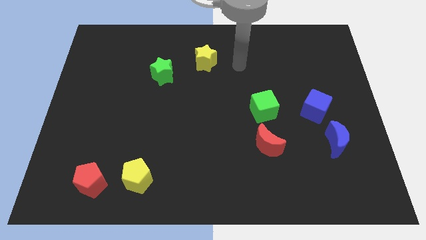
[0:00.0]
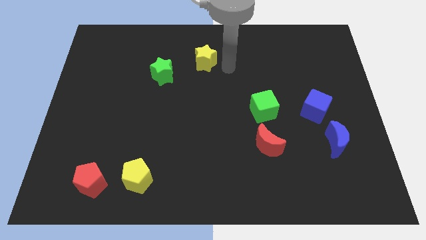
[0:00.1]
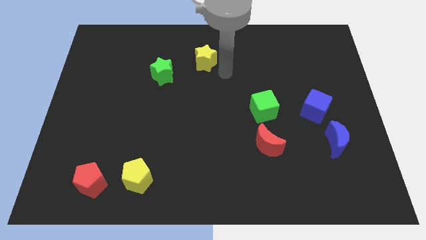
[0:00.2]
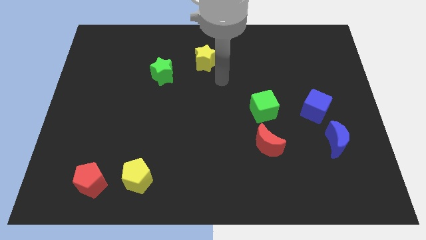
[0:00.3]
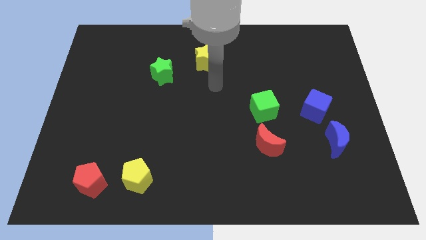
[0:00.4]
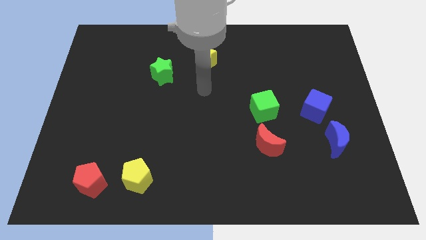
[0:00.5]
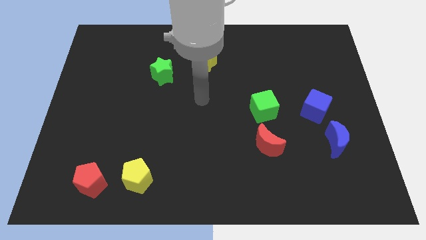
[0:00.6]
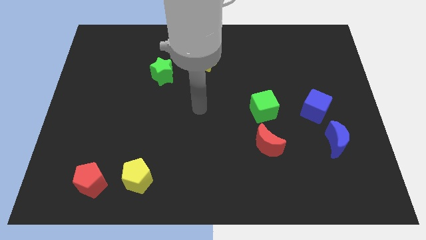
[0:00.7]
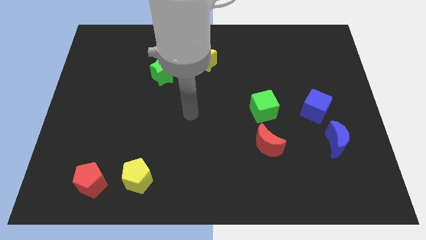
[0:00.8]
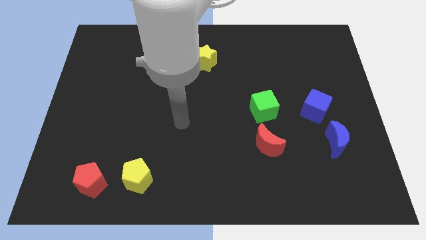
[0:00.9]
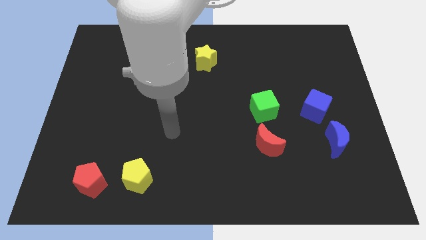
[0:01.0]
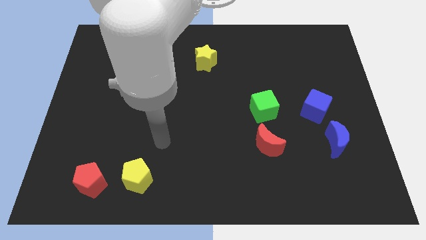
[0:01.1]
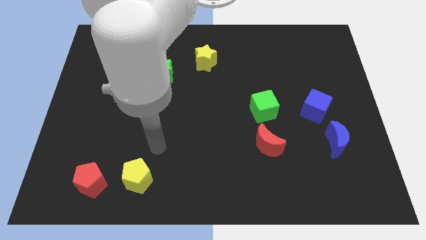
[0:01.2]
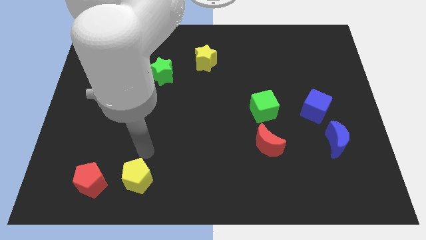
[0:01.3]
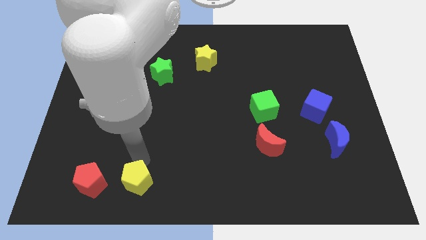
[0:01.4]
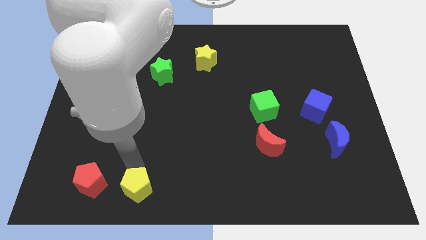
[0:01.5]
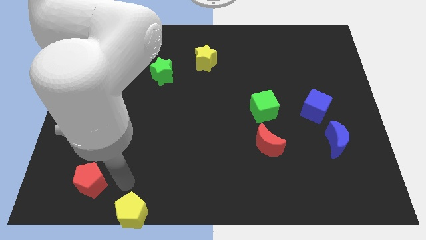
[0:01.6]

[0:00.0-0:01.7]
move the red pentagon away from the yellow pentagon

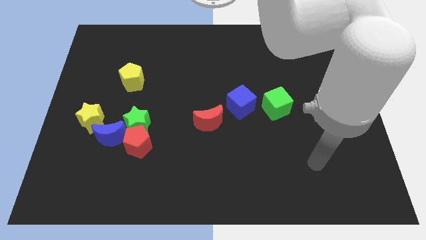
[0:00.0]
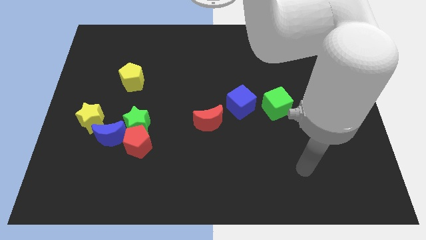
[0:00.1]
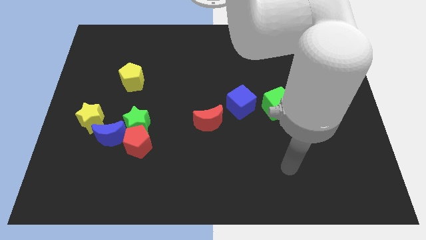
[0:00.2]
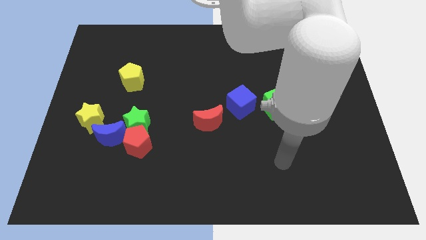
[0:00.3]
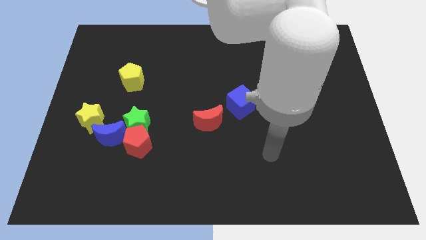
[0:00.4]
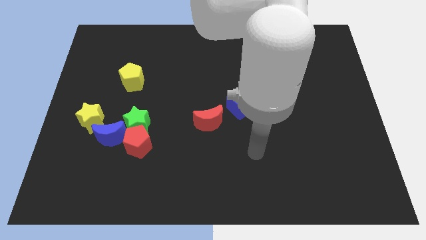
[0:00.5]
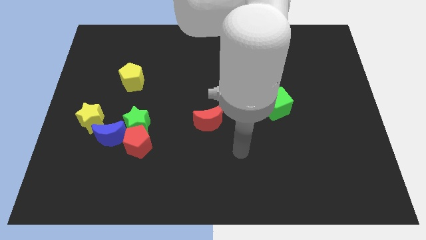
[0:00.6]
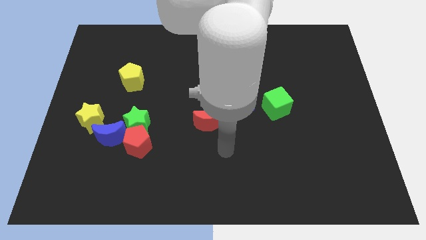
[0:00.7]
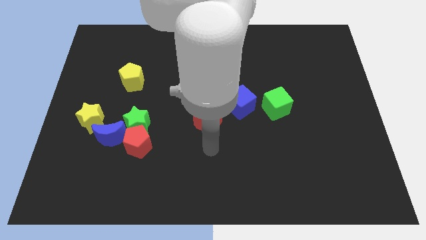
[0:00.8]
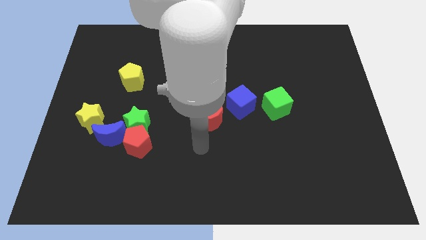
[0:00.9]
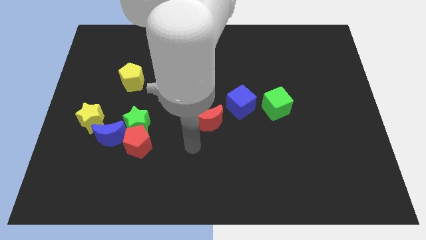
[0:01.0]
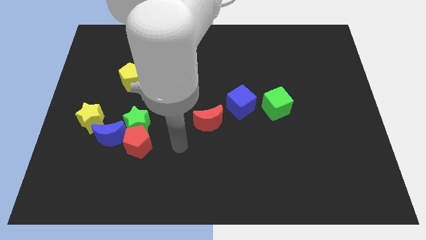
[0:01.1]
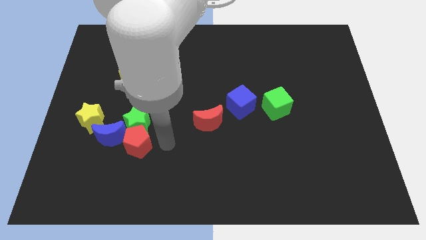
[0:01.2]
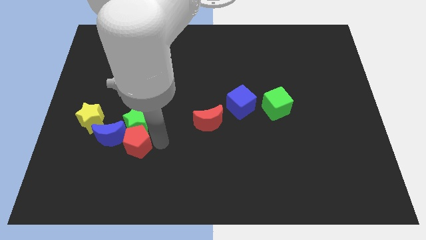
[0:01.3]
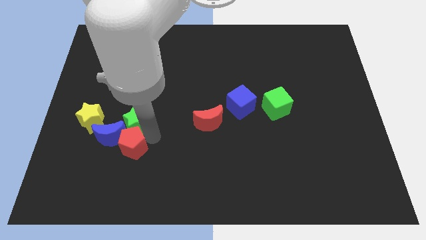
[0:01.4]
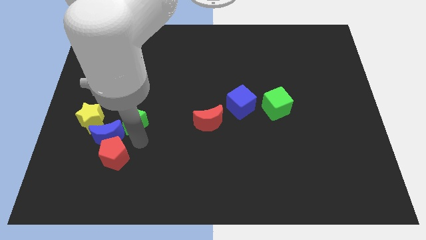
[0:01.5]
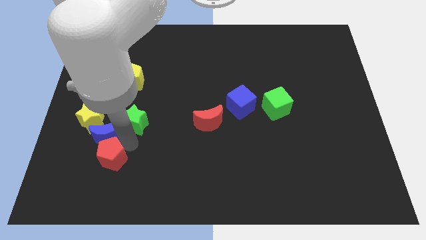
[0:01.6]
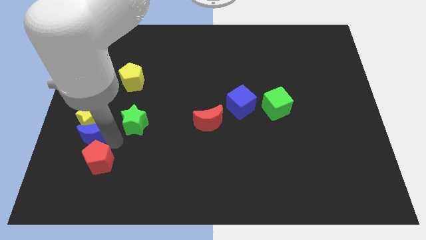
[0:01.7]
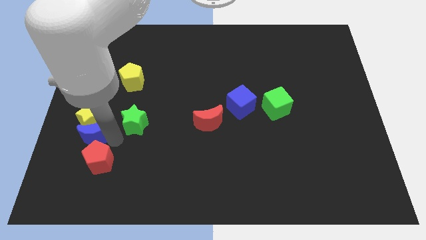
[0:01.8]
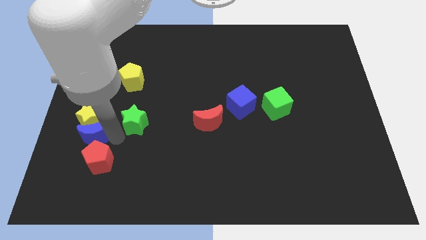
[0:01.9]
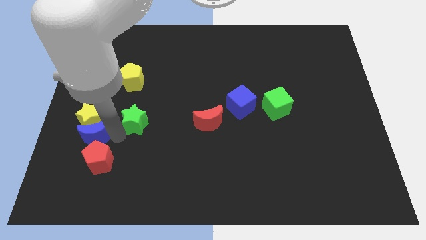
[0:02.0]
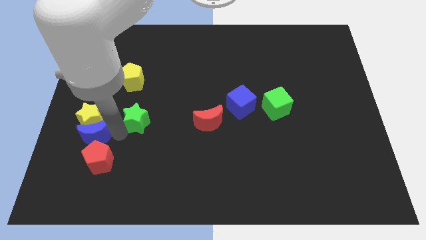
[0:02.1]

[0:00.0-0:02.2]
pull the green star apart from the red pentagon and blue moon

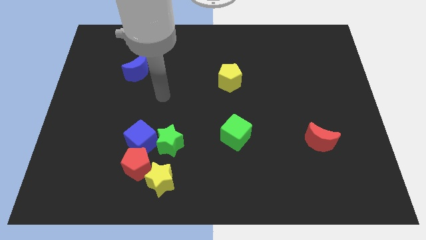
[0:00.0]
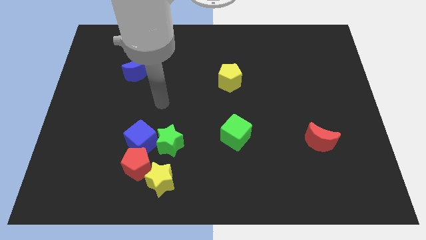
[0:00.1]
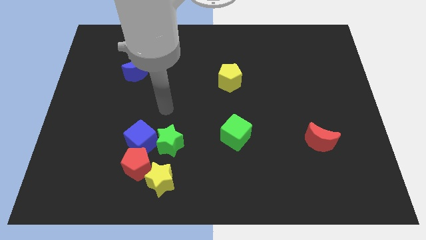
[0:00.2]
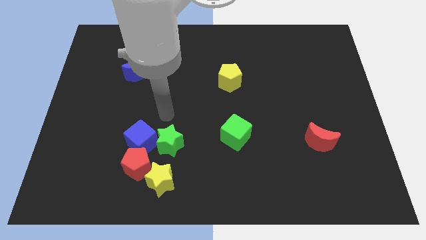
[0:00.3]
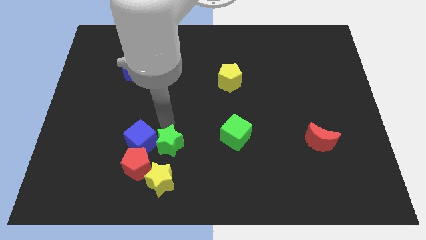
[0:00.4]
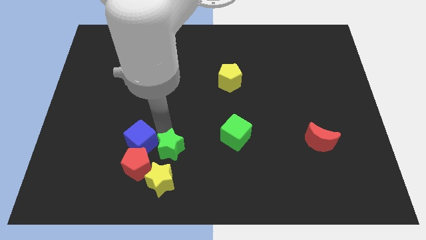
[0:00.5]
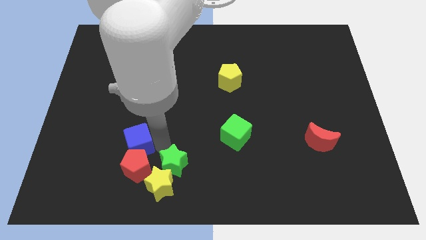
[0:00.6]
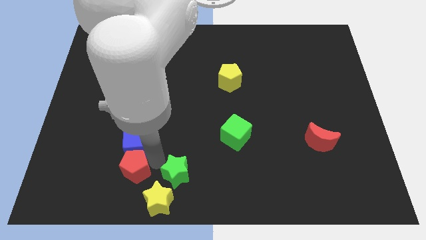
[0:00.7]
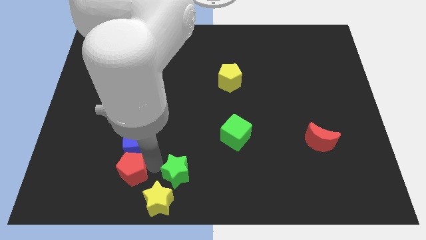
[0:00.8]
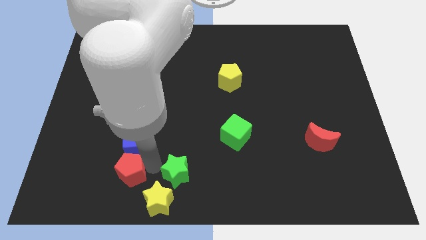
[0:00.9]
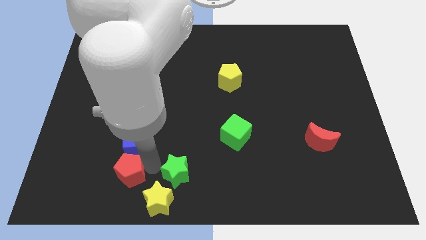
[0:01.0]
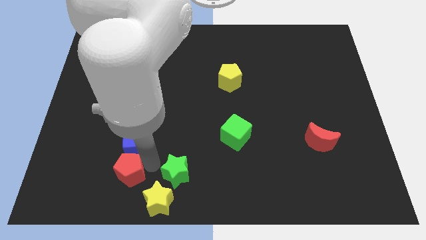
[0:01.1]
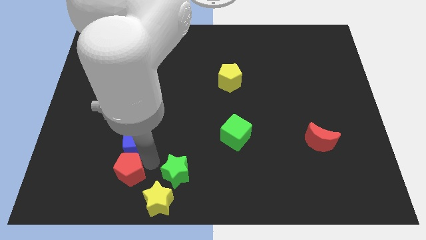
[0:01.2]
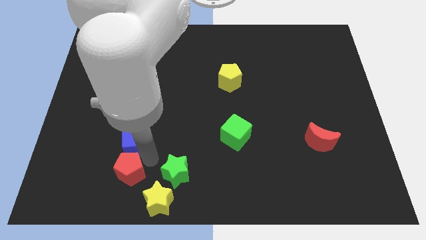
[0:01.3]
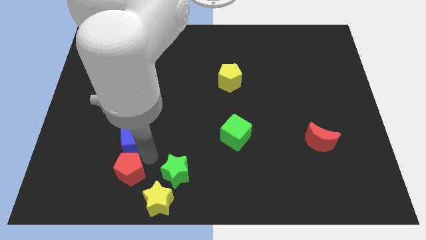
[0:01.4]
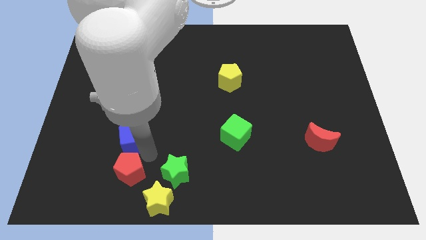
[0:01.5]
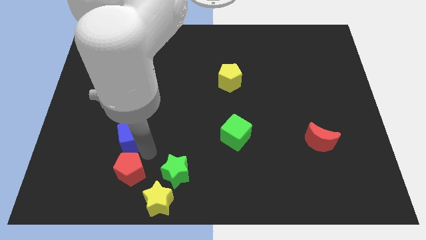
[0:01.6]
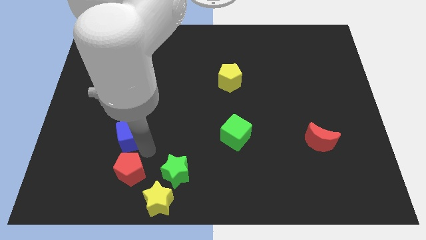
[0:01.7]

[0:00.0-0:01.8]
move the blue cube away from the red pentagon and green star

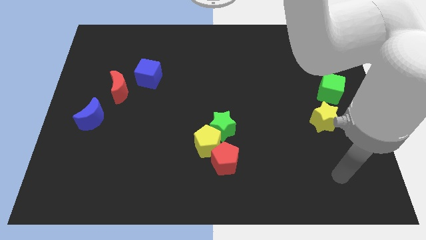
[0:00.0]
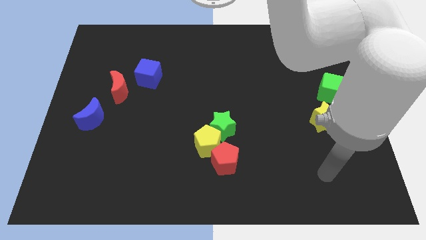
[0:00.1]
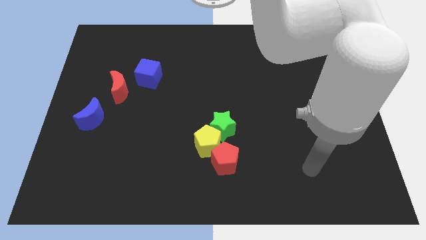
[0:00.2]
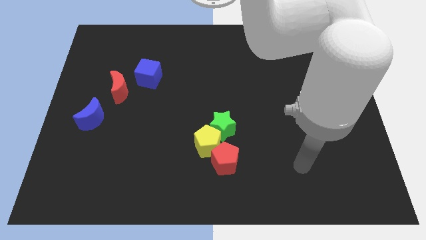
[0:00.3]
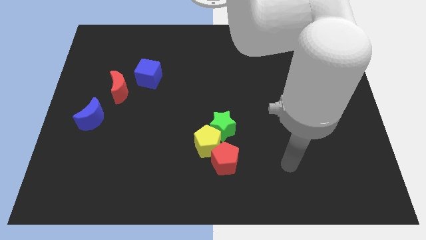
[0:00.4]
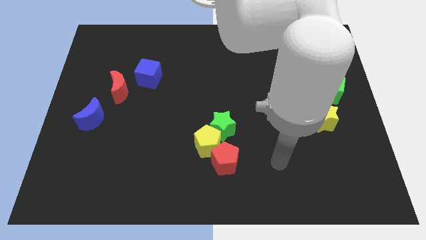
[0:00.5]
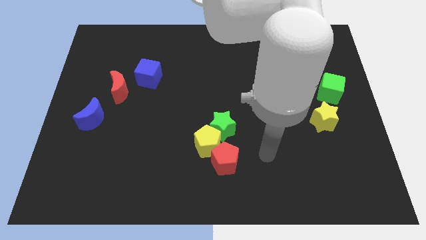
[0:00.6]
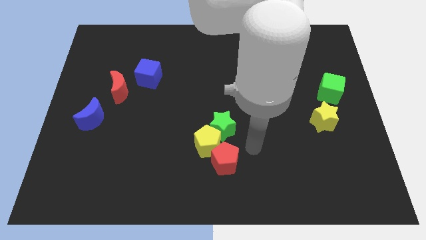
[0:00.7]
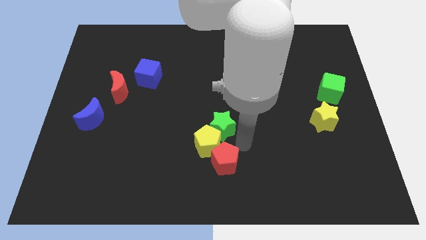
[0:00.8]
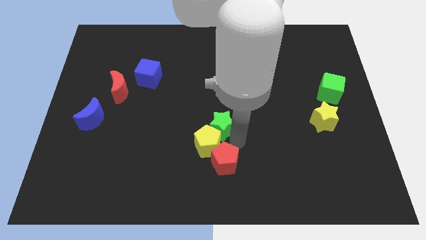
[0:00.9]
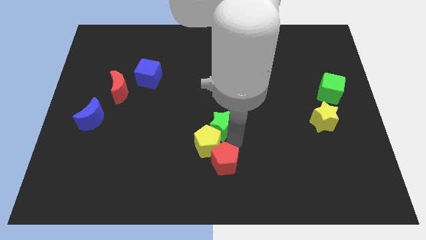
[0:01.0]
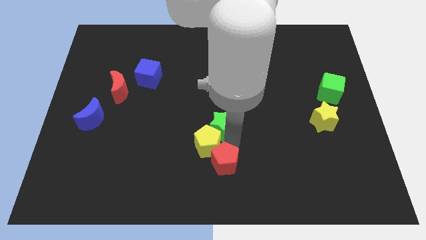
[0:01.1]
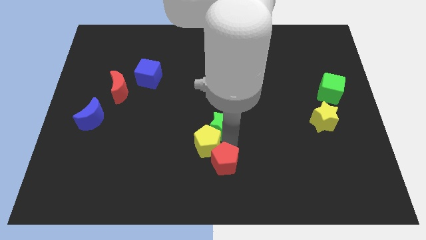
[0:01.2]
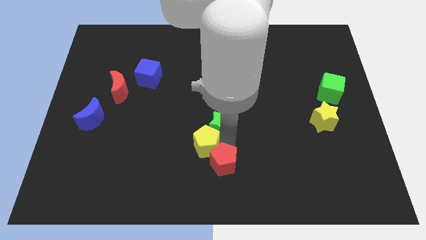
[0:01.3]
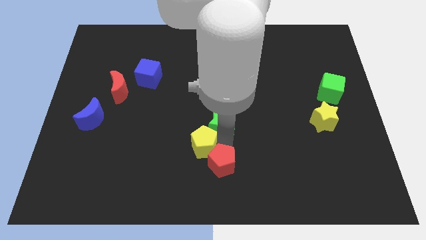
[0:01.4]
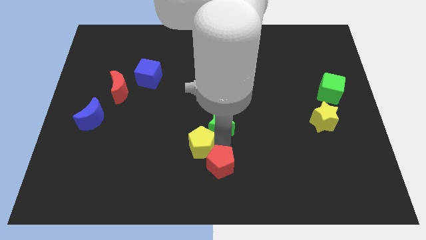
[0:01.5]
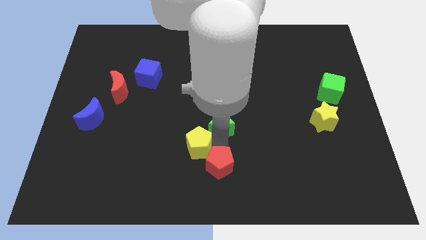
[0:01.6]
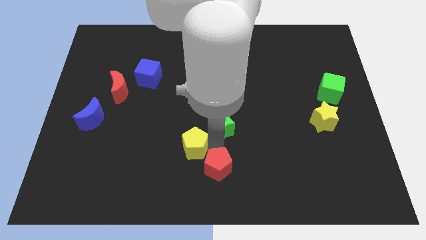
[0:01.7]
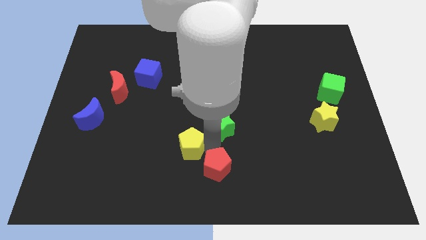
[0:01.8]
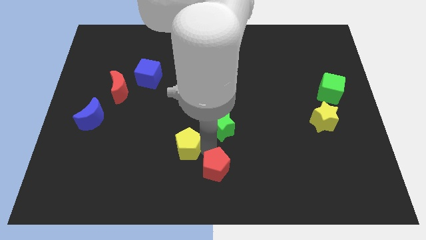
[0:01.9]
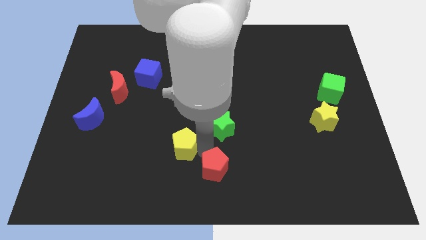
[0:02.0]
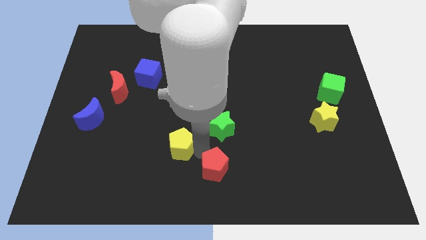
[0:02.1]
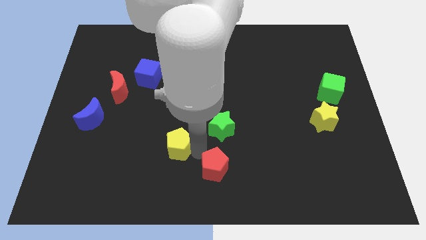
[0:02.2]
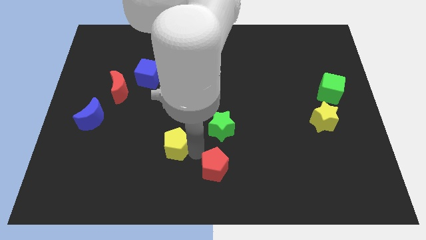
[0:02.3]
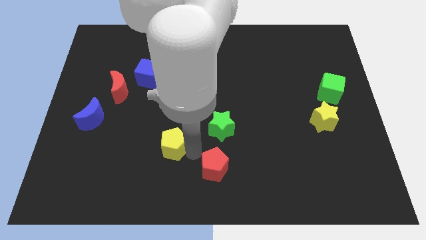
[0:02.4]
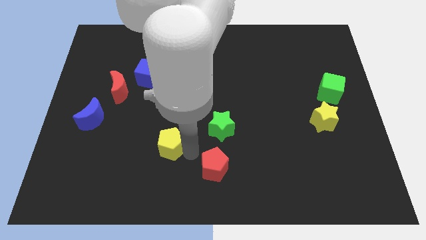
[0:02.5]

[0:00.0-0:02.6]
move the yellow pentagon away from the green star and red pentagon

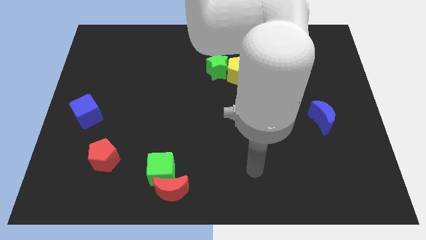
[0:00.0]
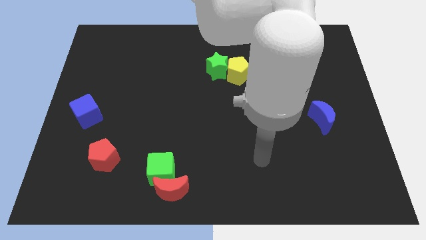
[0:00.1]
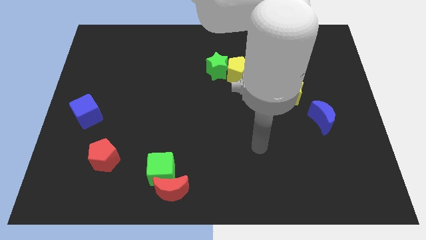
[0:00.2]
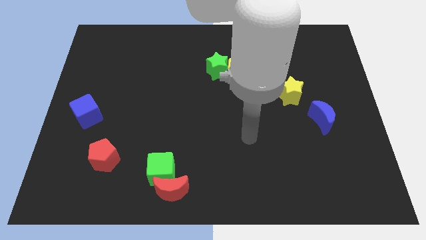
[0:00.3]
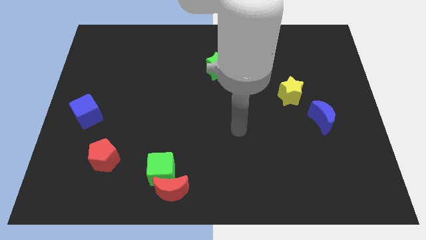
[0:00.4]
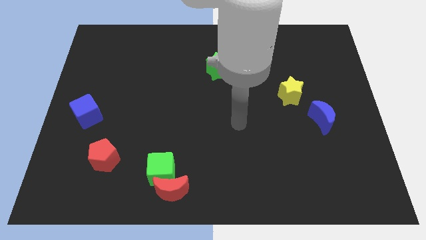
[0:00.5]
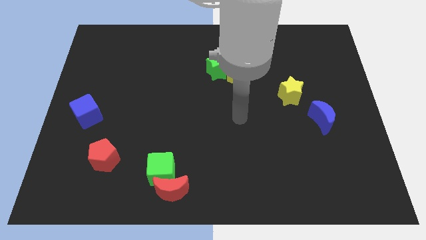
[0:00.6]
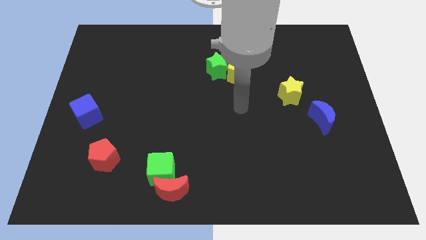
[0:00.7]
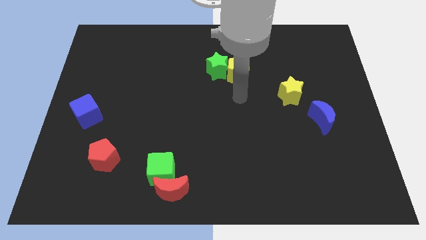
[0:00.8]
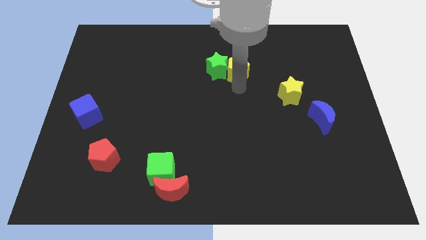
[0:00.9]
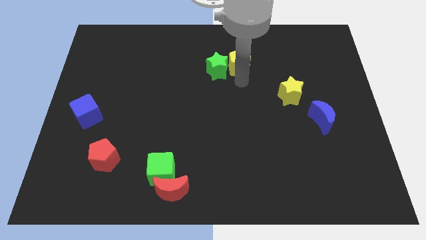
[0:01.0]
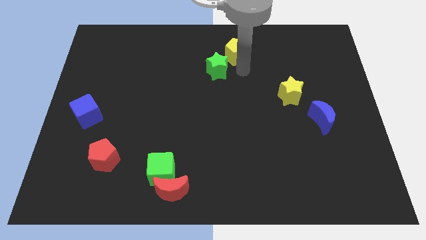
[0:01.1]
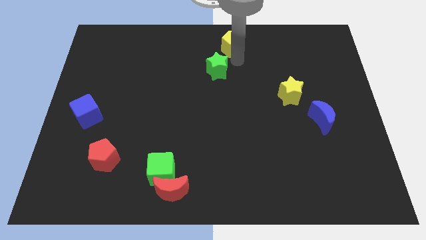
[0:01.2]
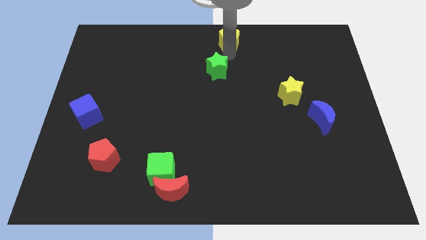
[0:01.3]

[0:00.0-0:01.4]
move the green star away from the yellow pentagon
